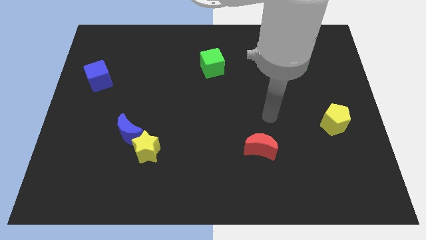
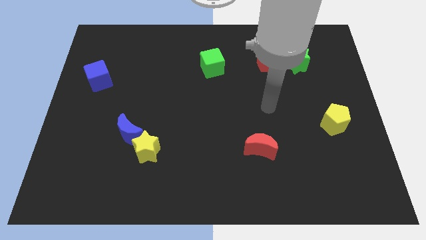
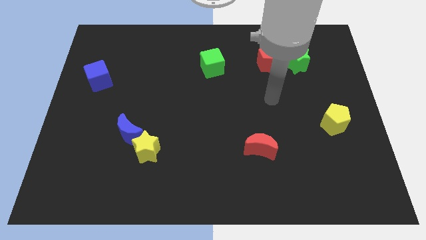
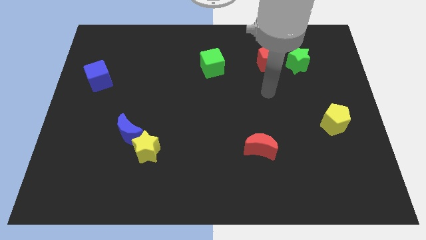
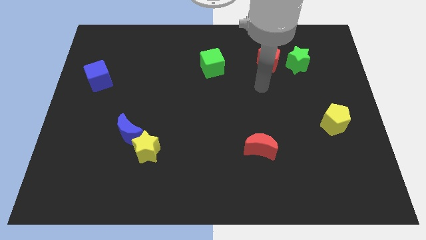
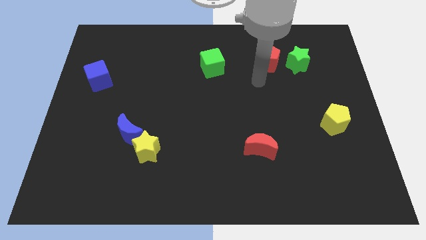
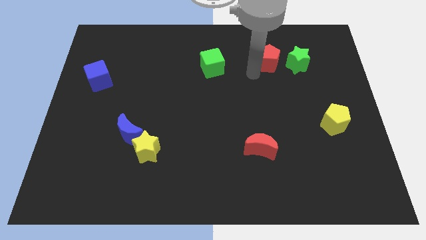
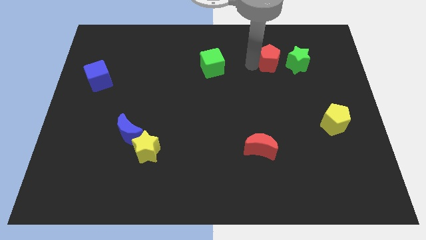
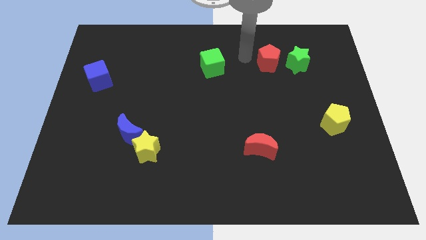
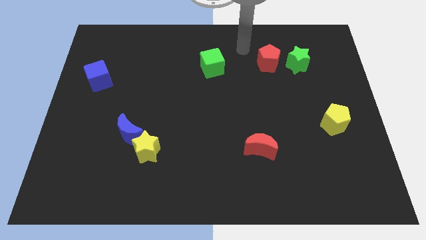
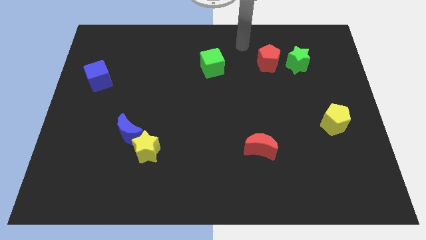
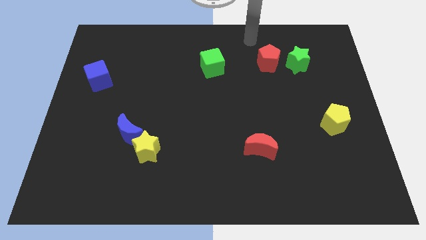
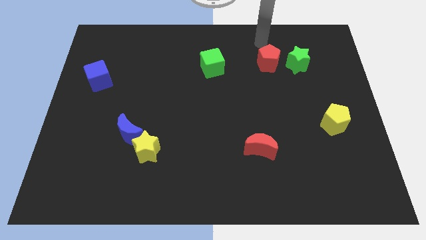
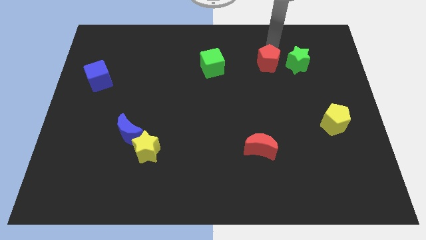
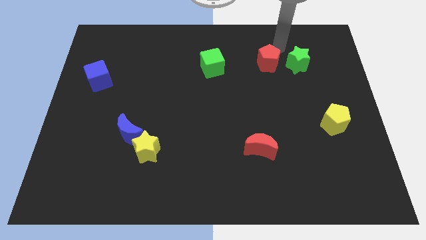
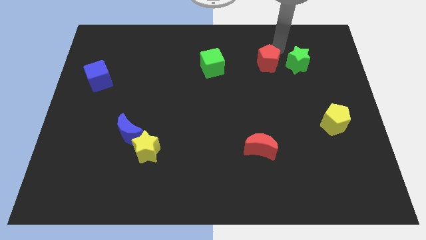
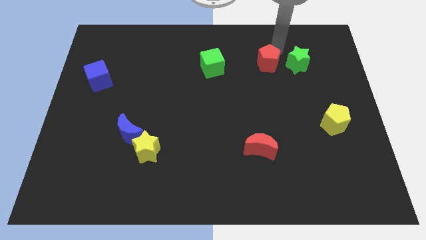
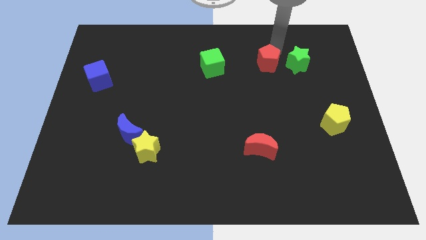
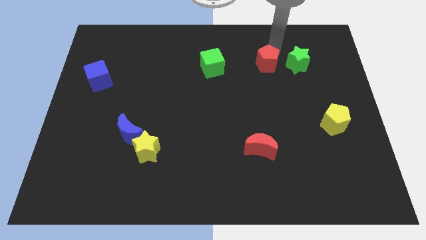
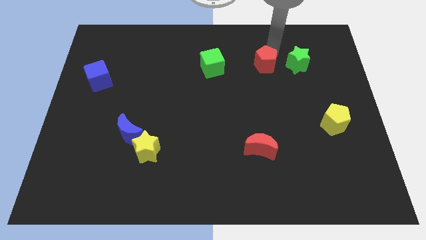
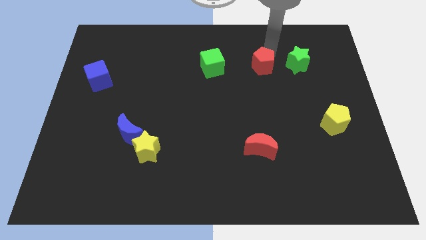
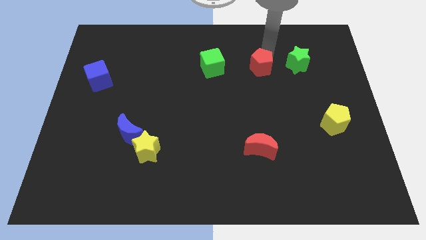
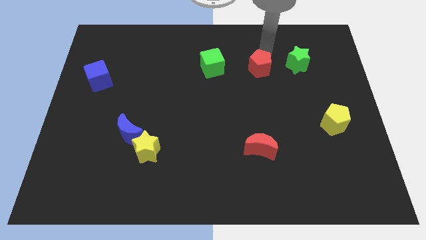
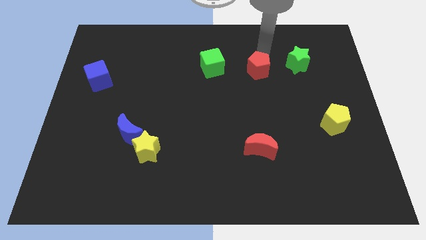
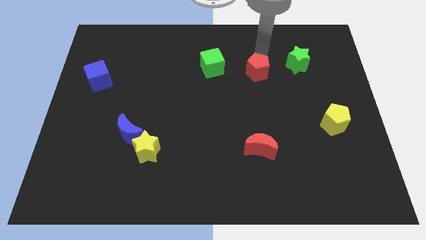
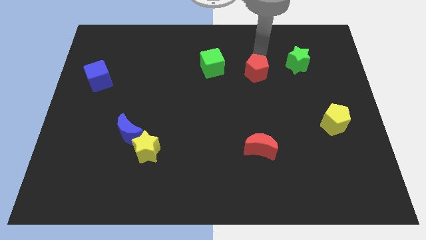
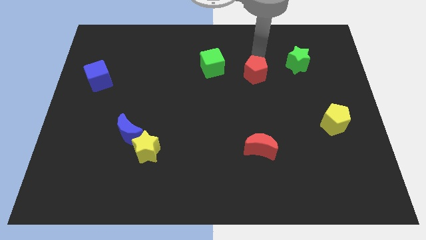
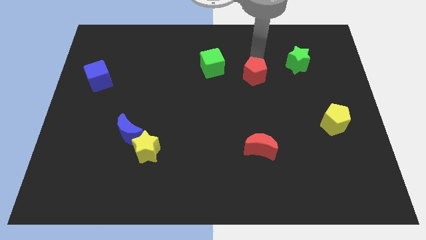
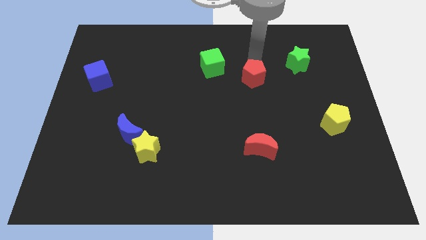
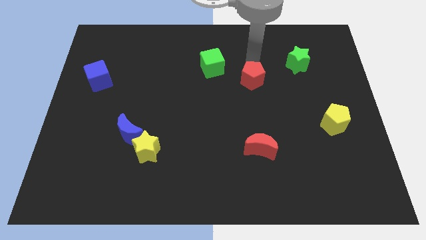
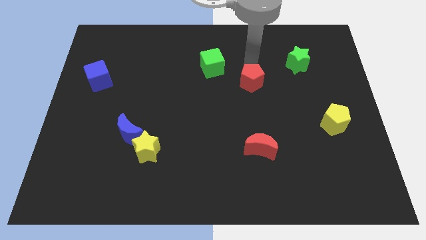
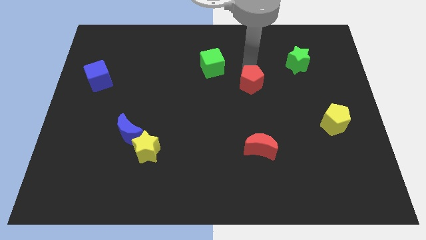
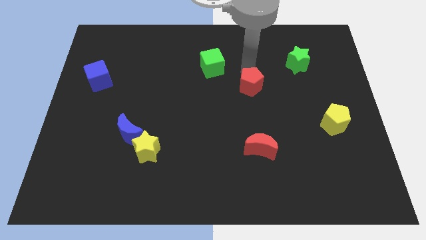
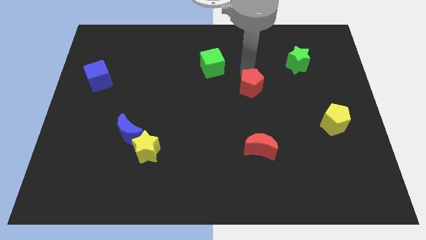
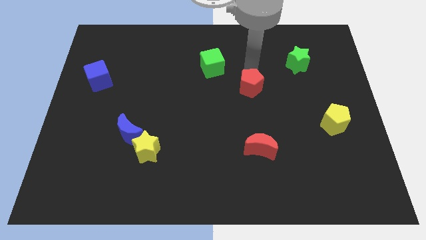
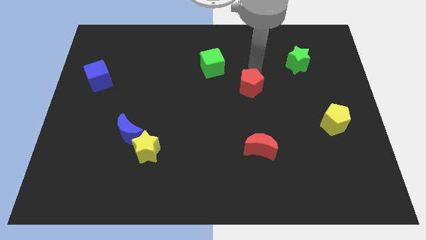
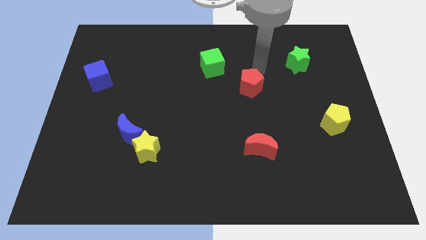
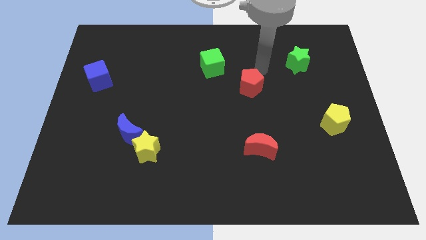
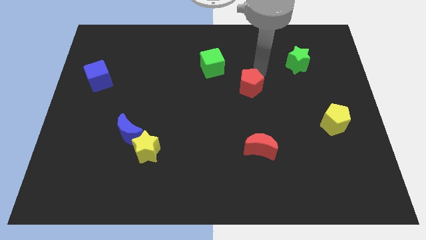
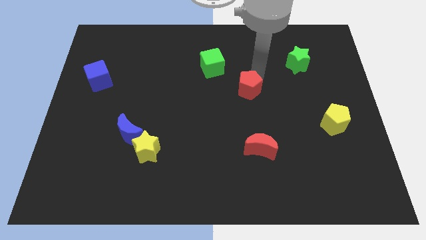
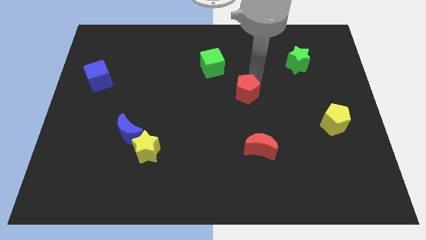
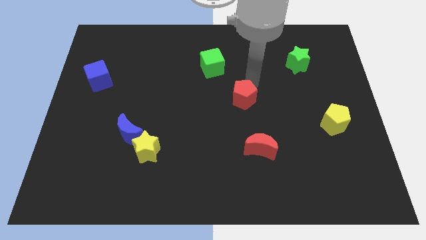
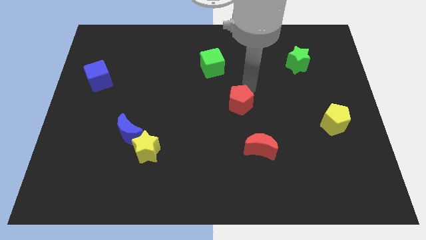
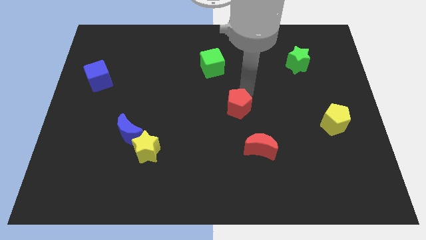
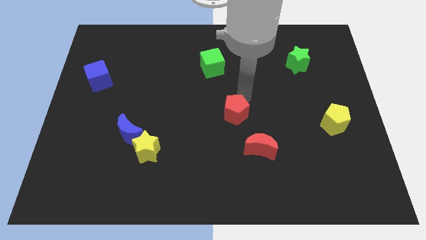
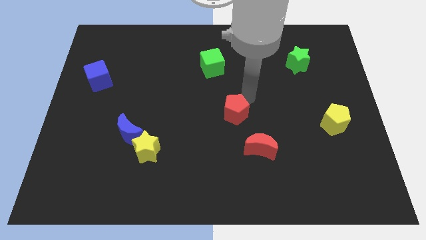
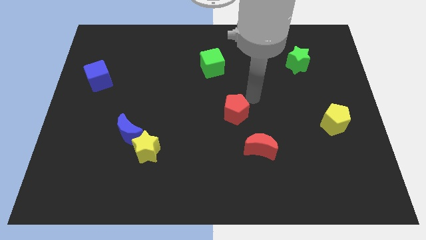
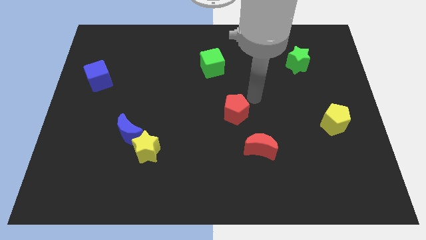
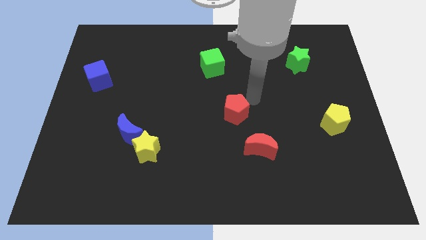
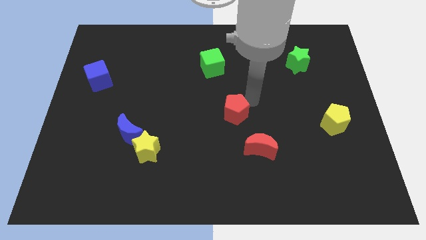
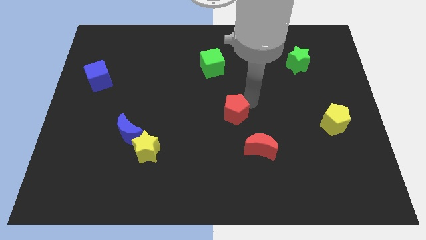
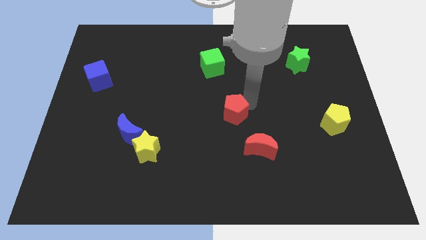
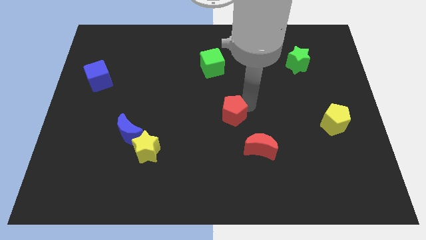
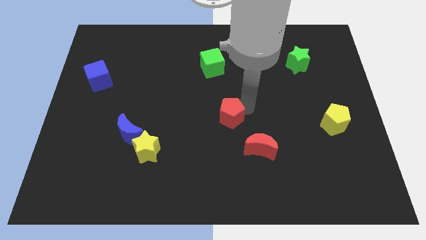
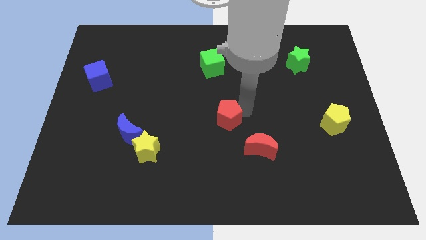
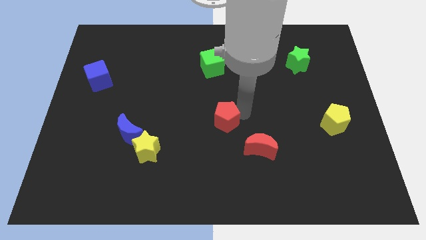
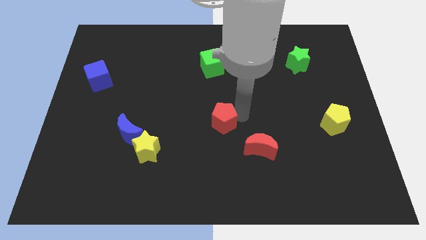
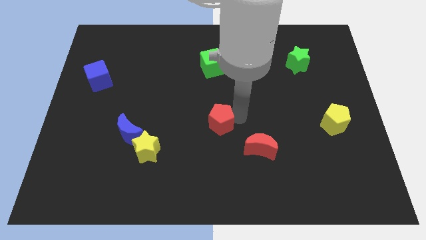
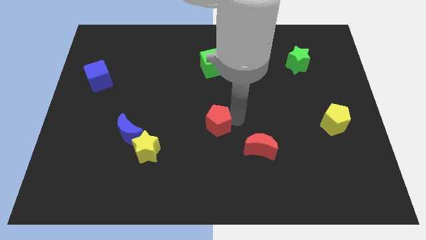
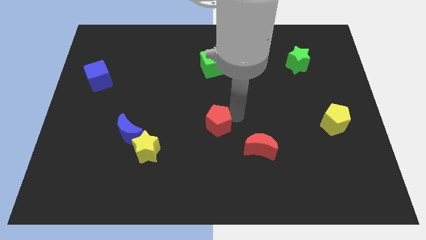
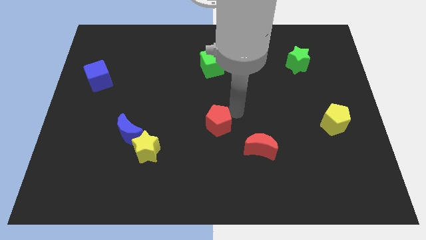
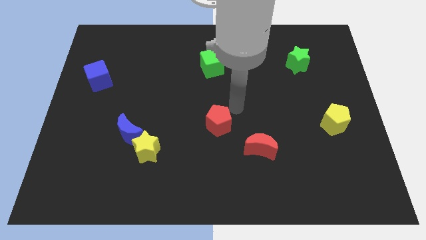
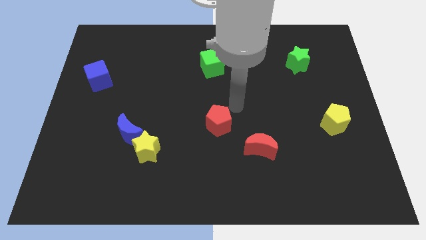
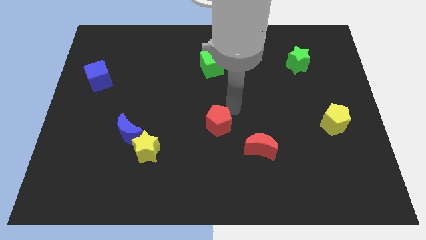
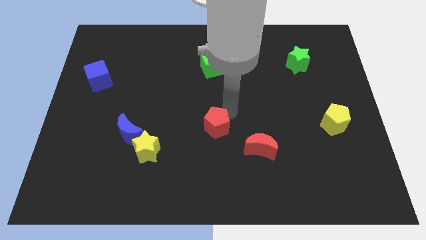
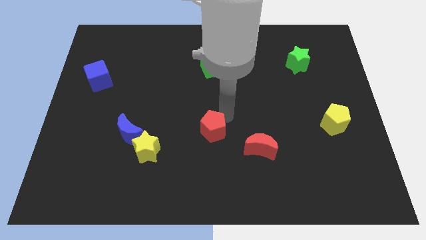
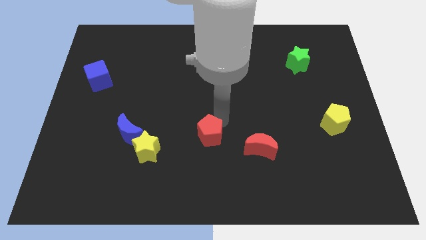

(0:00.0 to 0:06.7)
put the red pentagon to the right of the yellow star

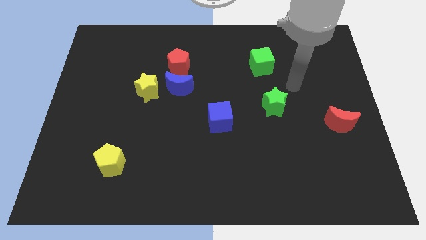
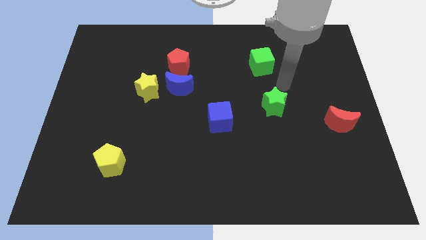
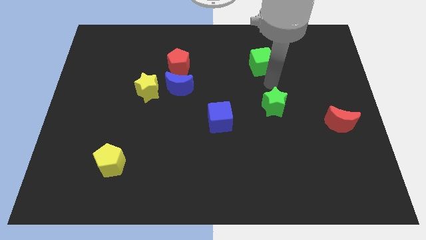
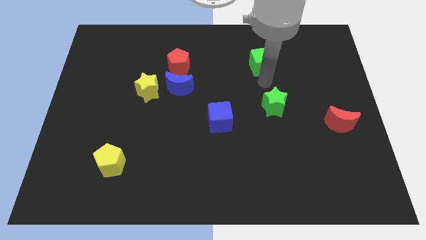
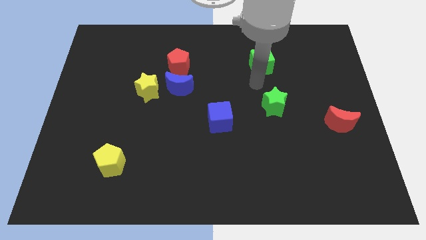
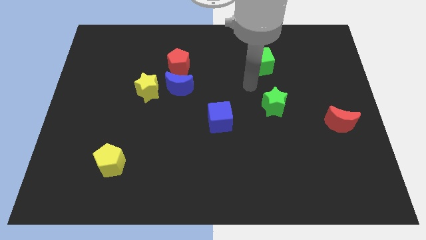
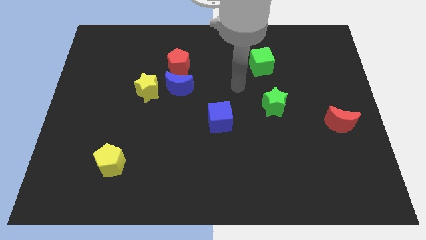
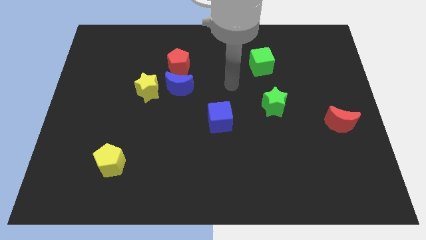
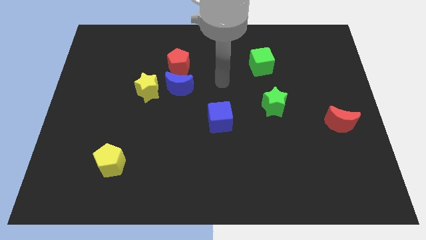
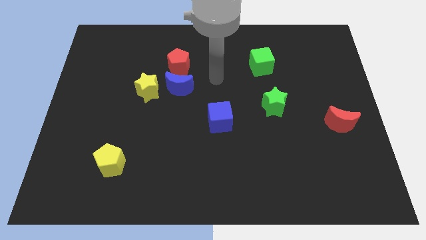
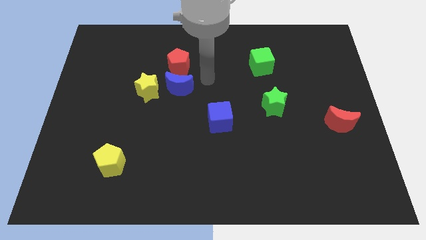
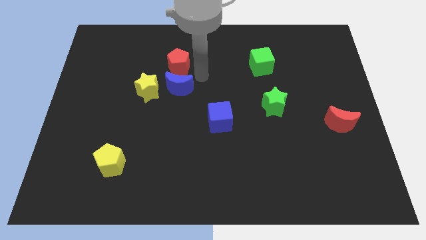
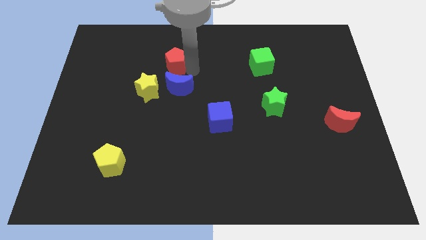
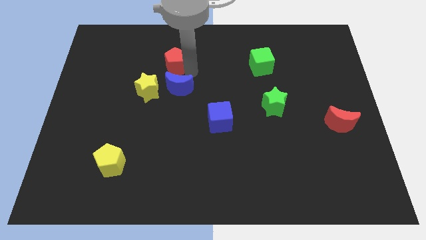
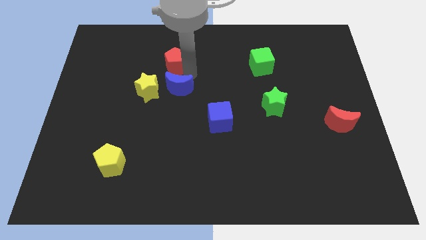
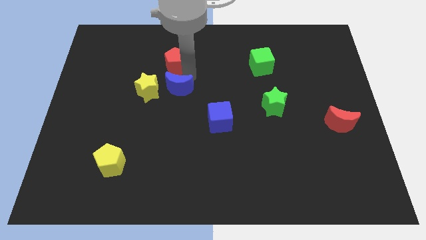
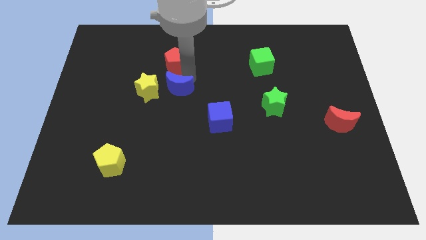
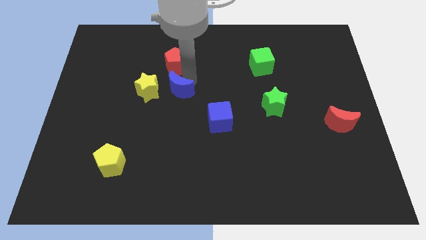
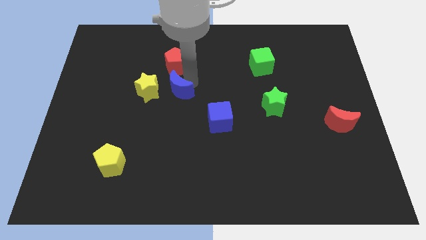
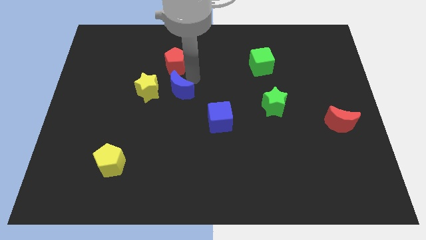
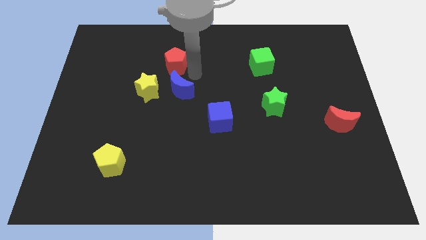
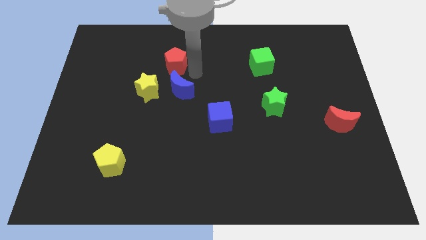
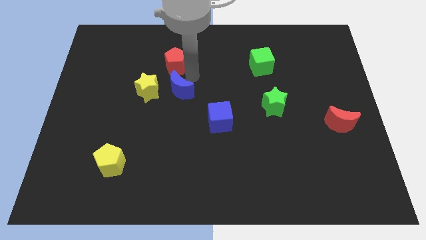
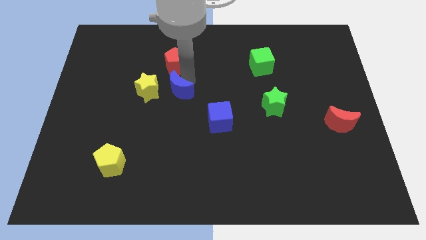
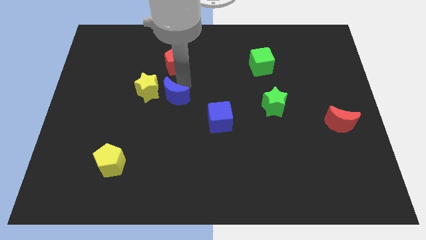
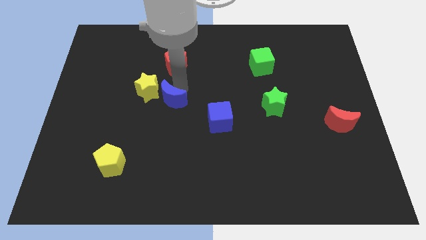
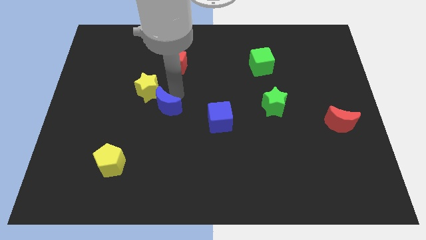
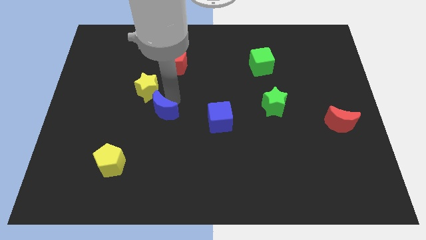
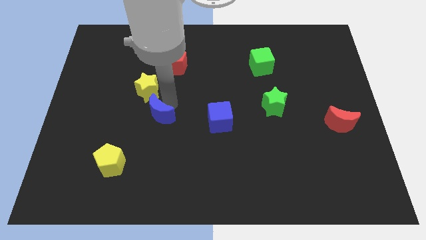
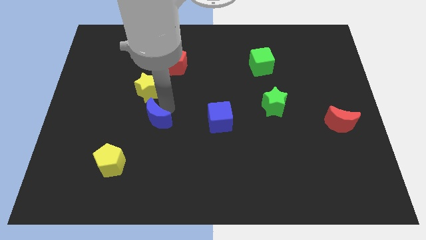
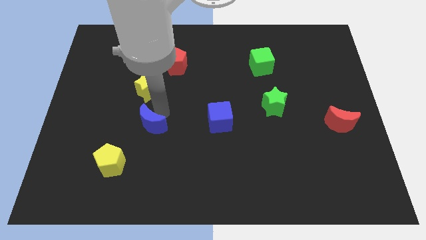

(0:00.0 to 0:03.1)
push the blue moon diagonally up and to the right of the yellow pentagon
